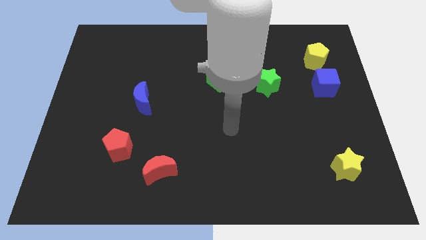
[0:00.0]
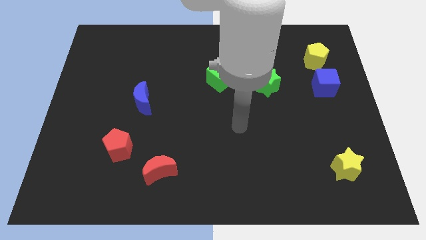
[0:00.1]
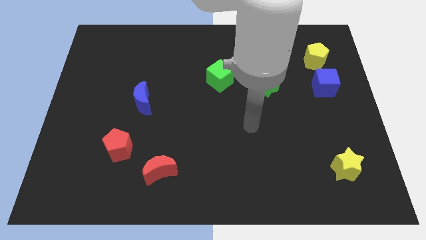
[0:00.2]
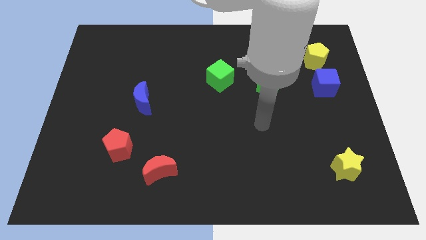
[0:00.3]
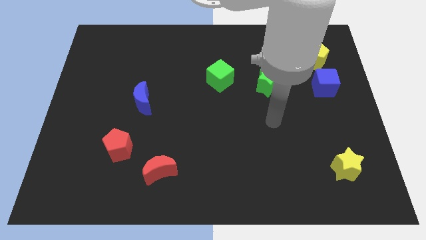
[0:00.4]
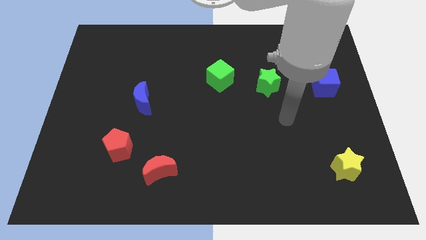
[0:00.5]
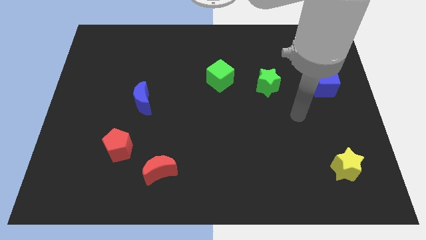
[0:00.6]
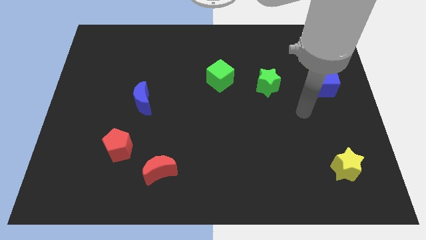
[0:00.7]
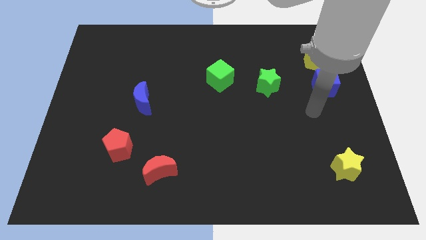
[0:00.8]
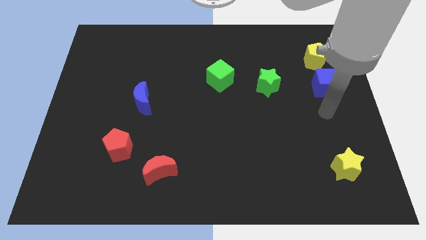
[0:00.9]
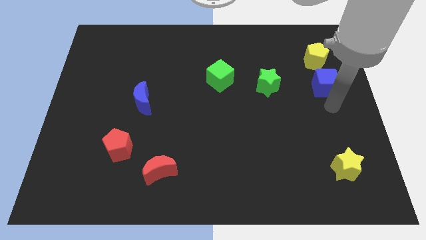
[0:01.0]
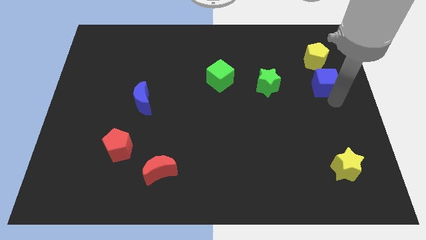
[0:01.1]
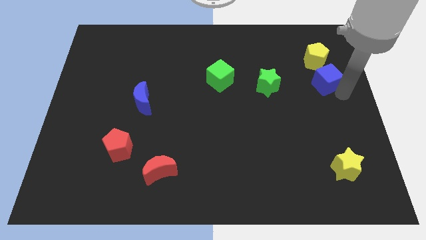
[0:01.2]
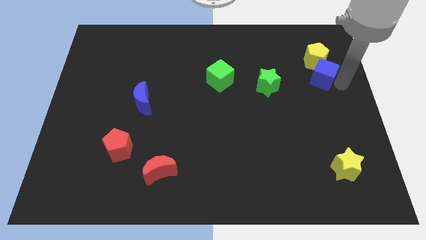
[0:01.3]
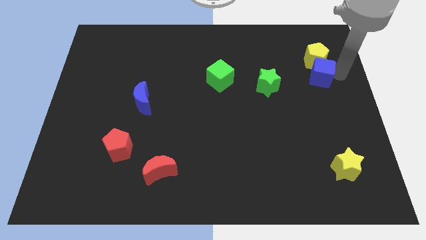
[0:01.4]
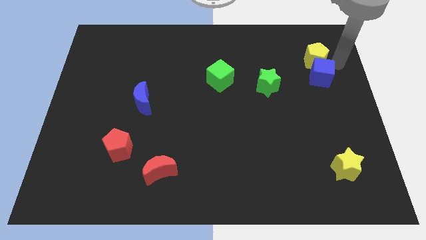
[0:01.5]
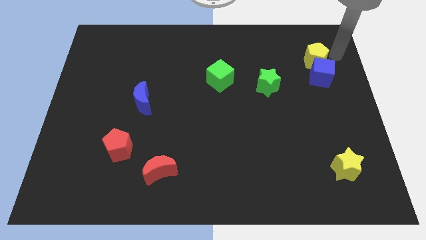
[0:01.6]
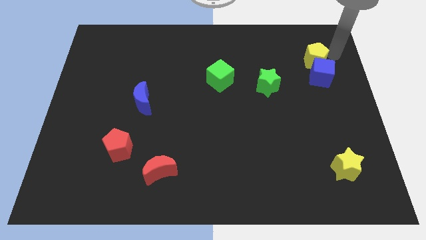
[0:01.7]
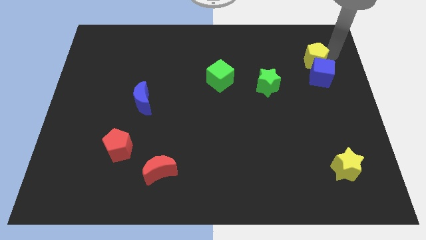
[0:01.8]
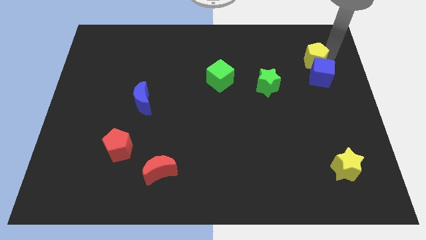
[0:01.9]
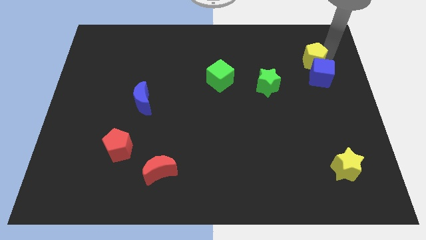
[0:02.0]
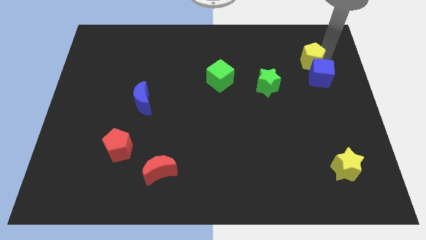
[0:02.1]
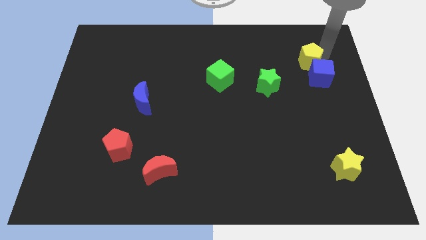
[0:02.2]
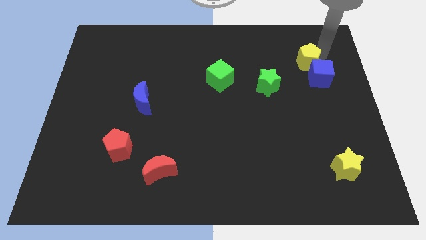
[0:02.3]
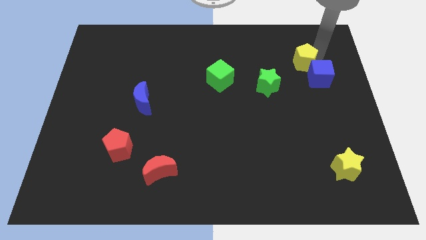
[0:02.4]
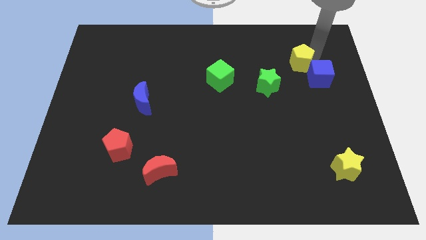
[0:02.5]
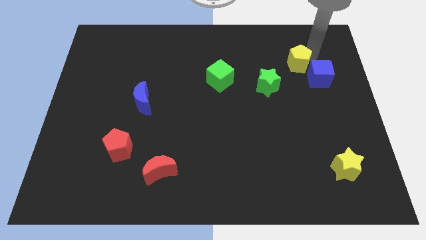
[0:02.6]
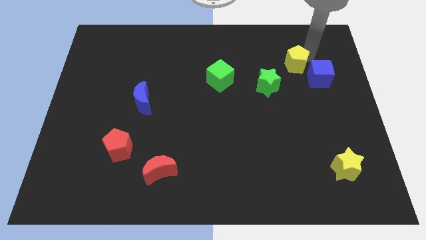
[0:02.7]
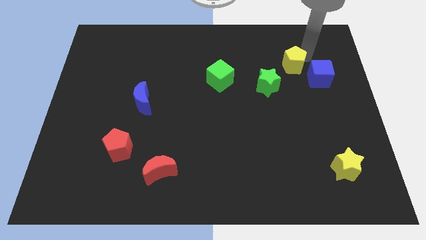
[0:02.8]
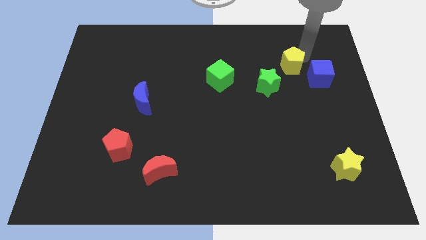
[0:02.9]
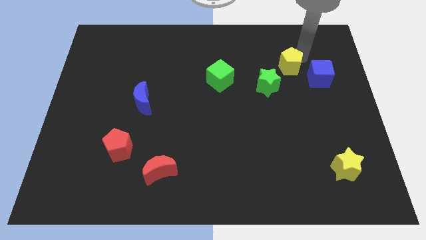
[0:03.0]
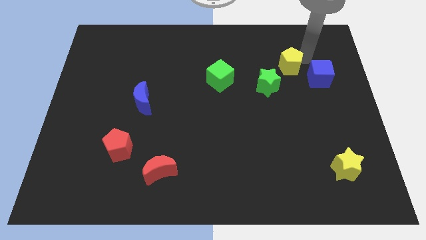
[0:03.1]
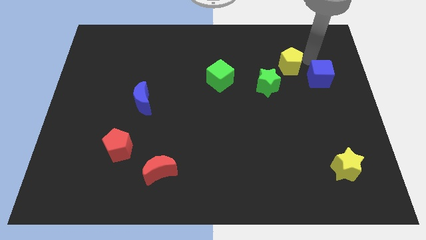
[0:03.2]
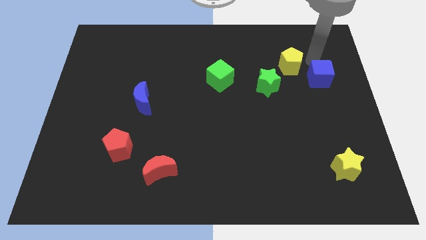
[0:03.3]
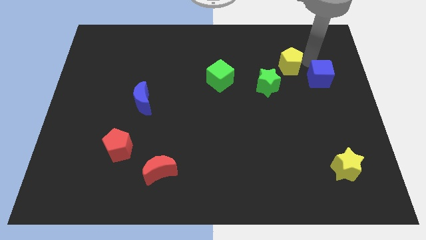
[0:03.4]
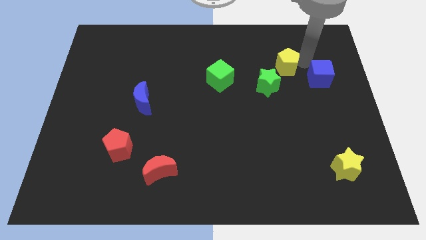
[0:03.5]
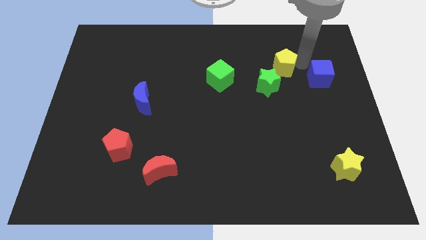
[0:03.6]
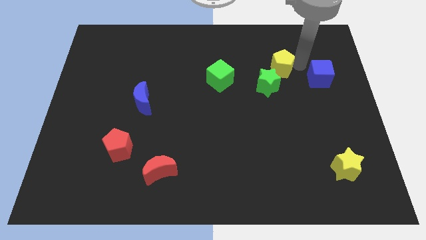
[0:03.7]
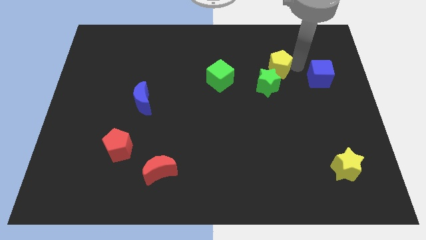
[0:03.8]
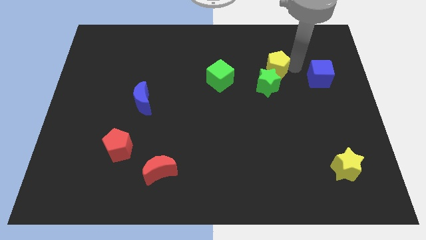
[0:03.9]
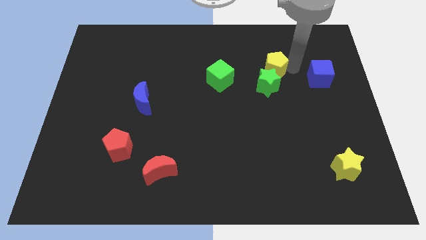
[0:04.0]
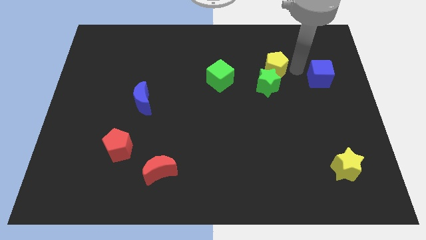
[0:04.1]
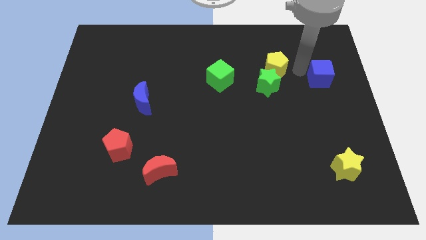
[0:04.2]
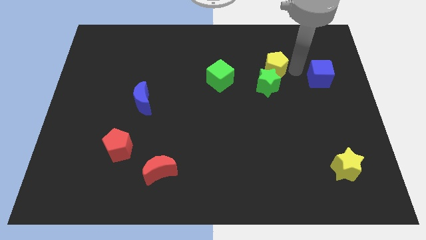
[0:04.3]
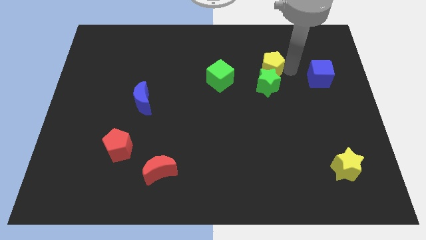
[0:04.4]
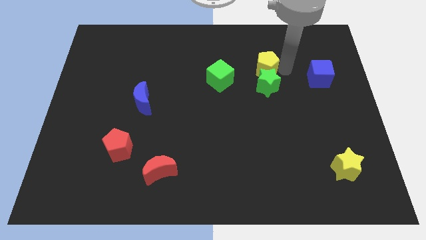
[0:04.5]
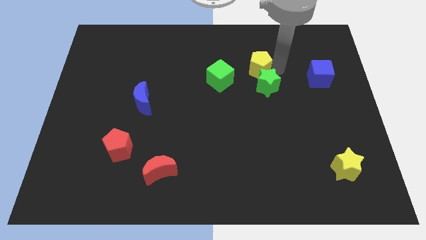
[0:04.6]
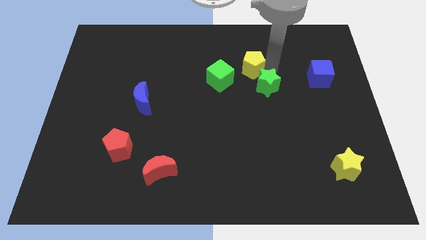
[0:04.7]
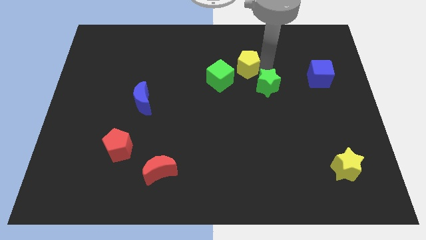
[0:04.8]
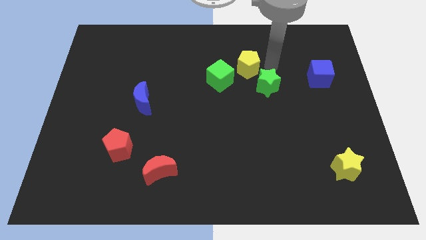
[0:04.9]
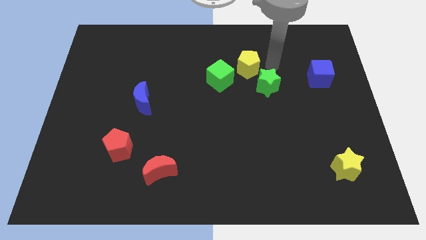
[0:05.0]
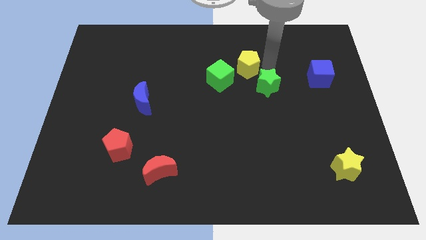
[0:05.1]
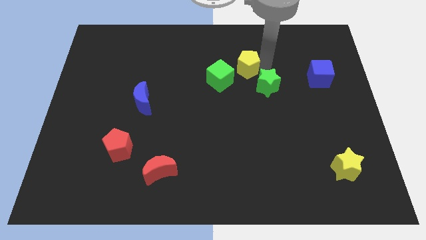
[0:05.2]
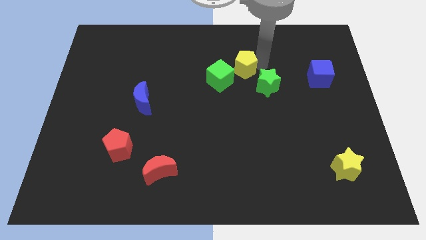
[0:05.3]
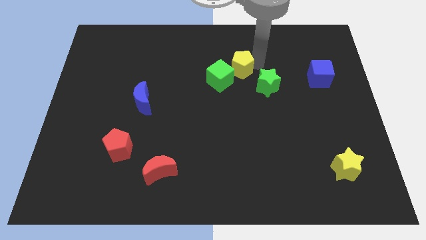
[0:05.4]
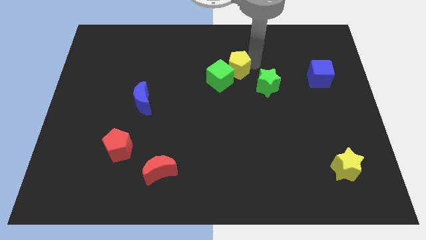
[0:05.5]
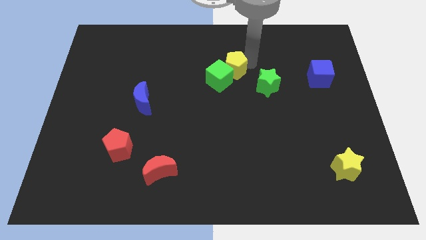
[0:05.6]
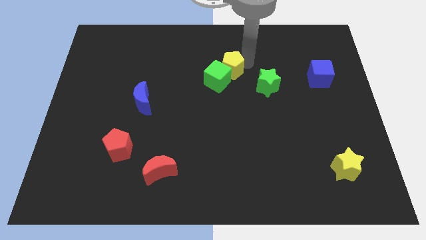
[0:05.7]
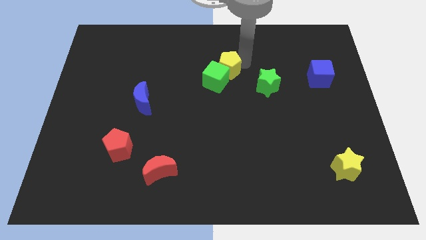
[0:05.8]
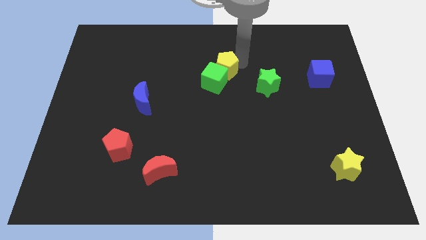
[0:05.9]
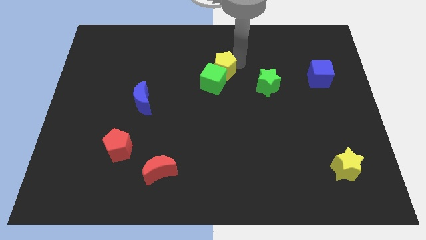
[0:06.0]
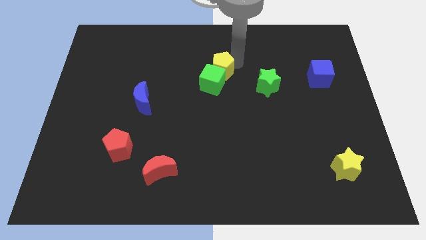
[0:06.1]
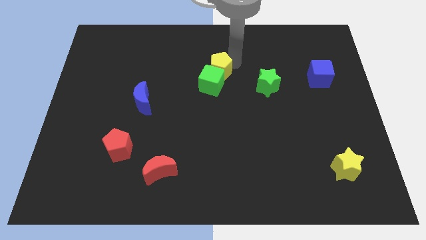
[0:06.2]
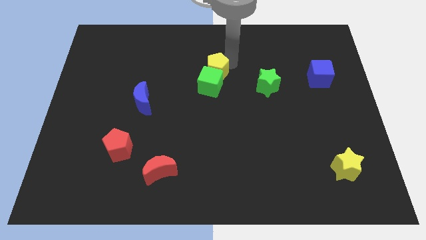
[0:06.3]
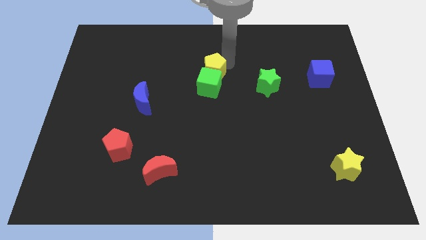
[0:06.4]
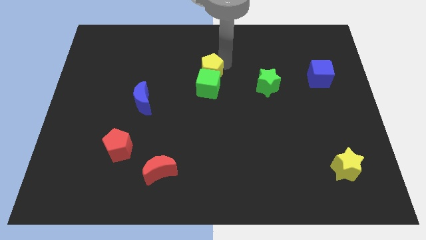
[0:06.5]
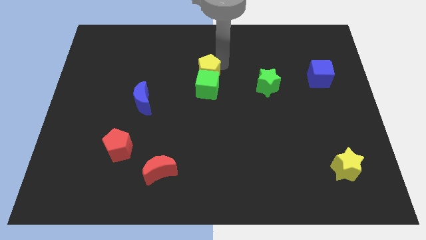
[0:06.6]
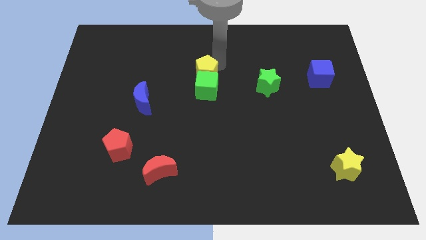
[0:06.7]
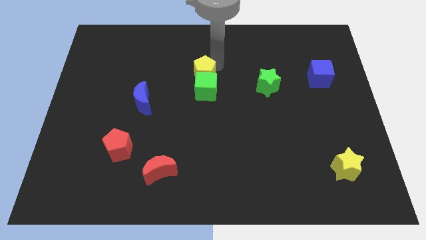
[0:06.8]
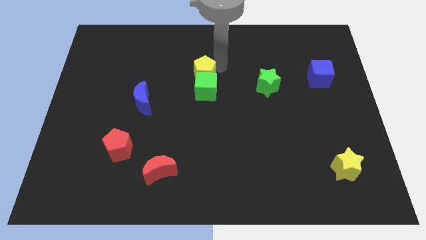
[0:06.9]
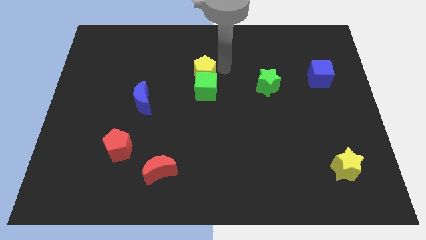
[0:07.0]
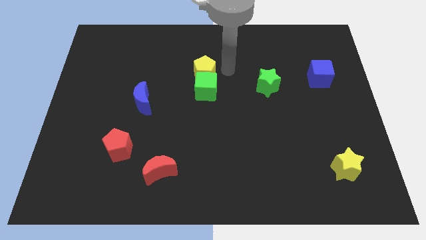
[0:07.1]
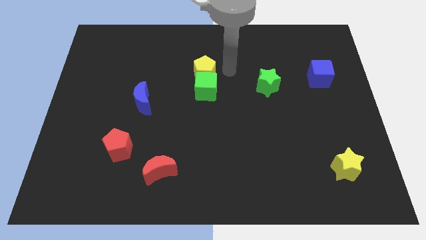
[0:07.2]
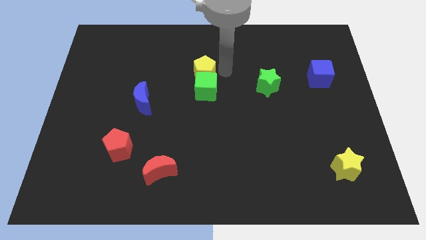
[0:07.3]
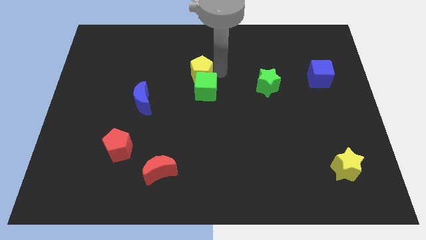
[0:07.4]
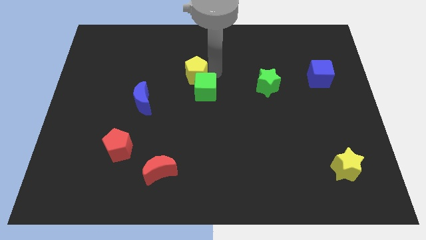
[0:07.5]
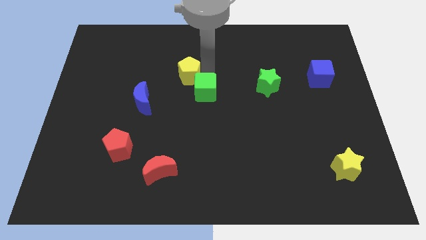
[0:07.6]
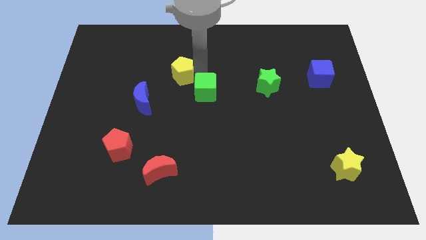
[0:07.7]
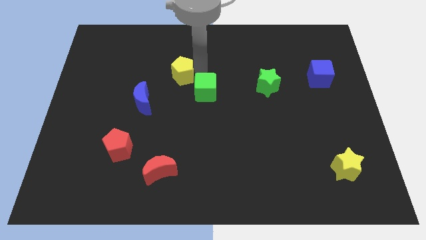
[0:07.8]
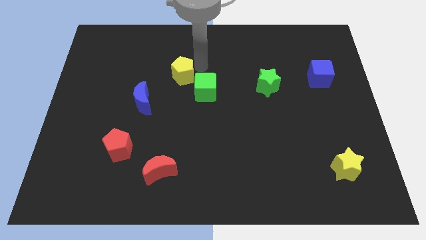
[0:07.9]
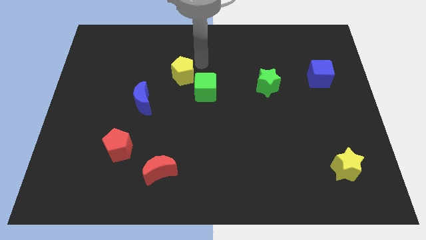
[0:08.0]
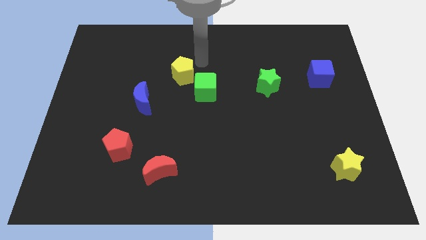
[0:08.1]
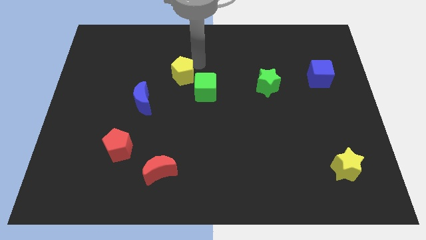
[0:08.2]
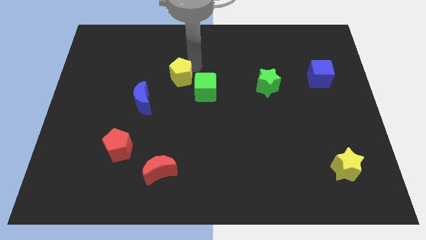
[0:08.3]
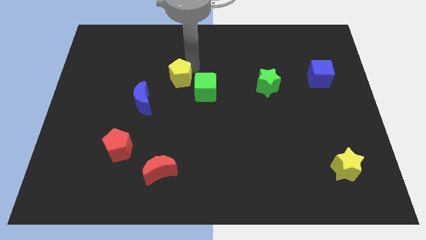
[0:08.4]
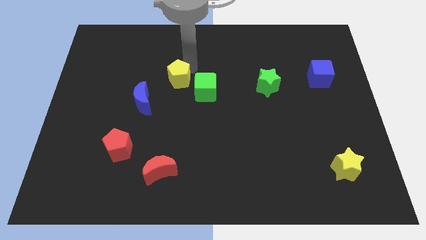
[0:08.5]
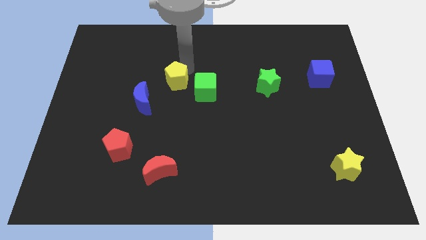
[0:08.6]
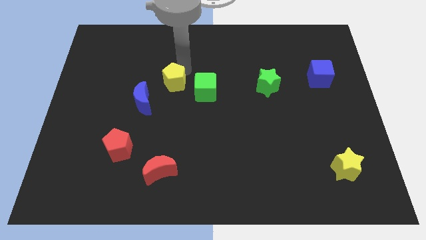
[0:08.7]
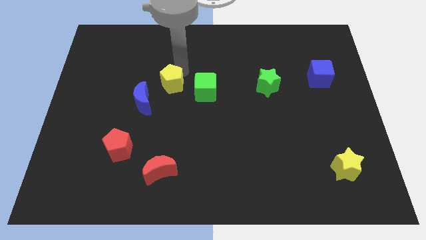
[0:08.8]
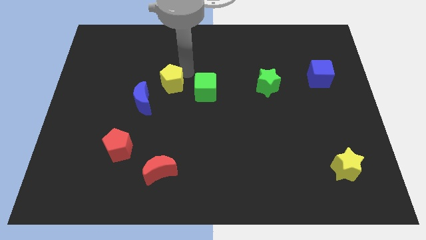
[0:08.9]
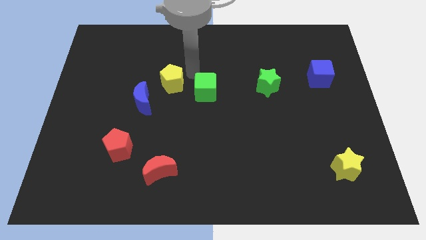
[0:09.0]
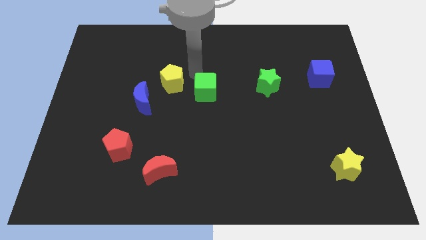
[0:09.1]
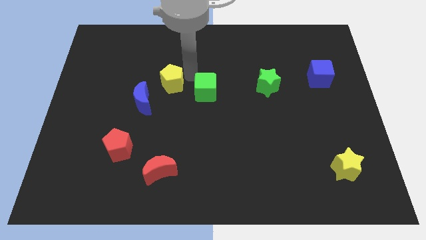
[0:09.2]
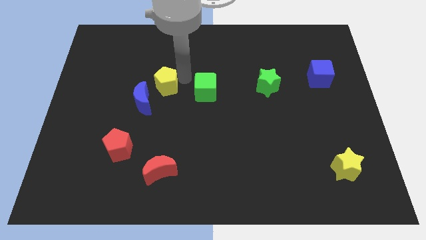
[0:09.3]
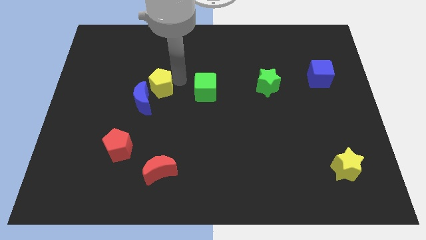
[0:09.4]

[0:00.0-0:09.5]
move the yellow pentagon next to the blue moon
